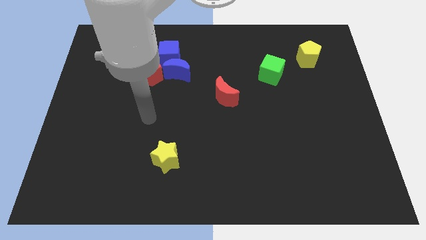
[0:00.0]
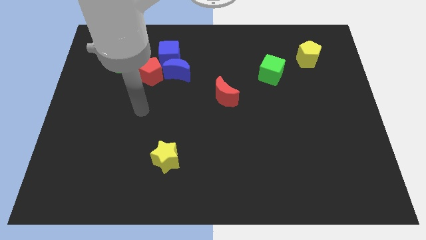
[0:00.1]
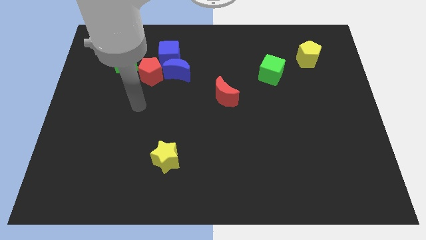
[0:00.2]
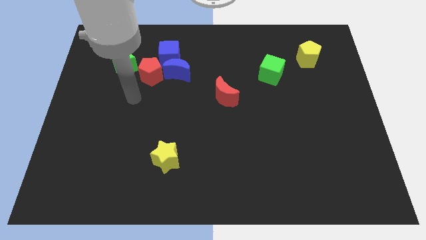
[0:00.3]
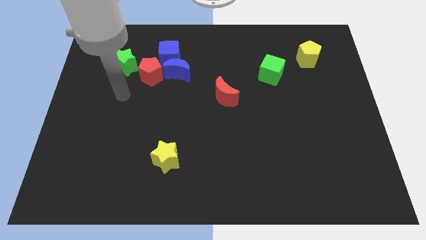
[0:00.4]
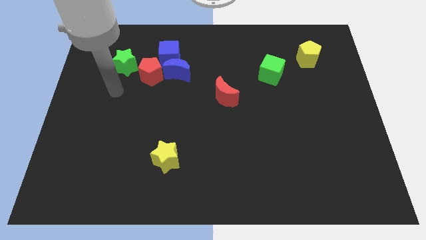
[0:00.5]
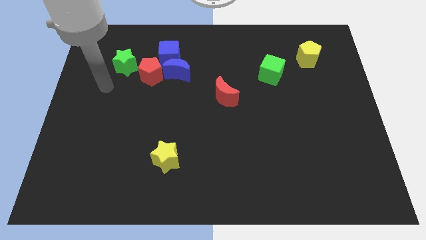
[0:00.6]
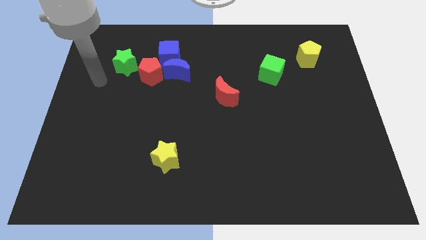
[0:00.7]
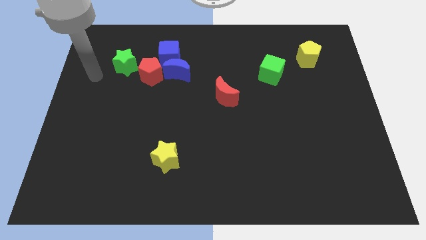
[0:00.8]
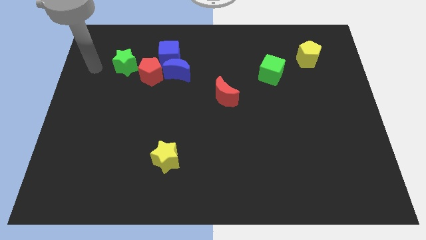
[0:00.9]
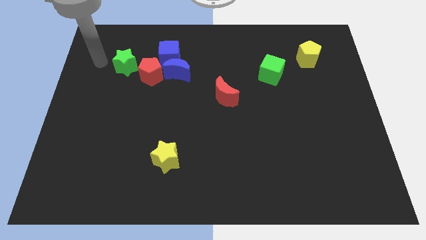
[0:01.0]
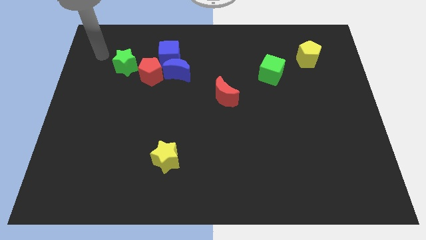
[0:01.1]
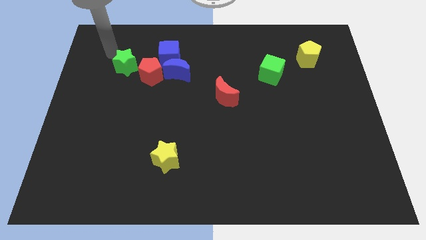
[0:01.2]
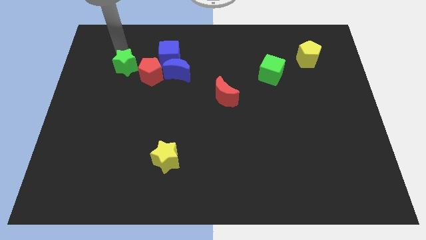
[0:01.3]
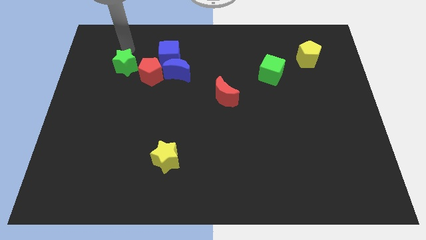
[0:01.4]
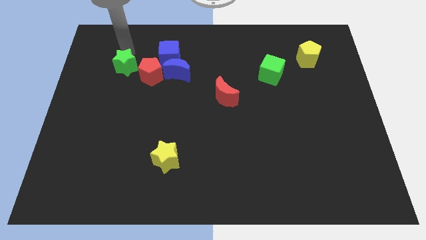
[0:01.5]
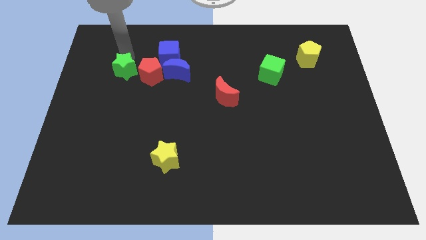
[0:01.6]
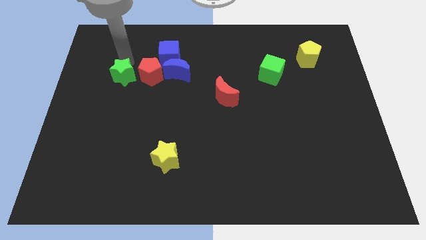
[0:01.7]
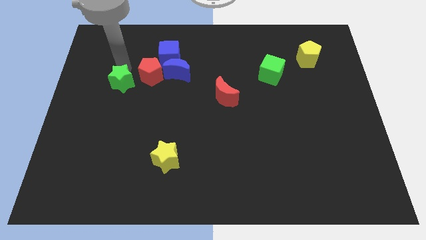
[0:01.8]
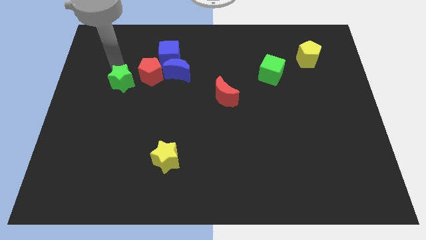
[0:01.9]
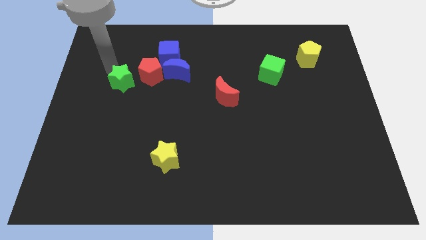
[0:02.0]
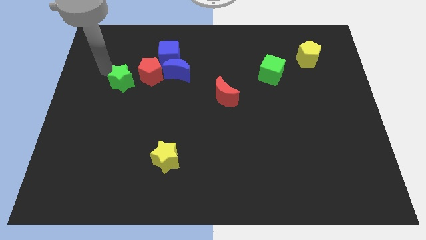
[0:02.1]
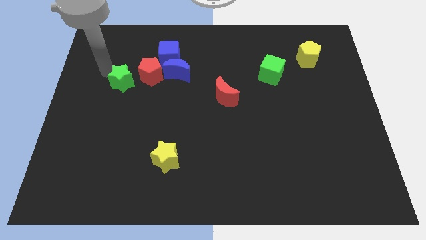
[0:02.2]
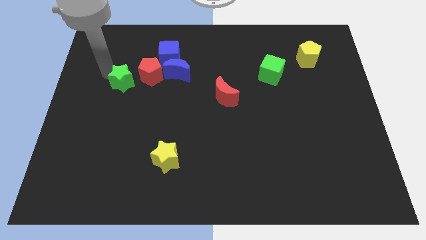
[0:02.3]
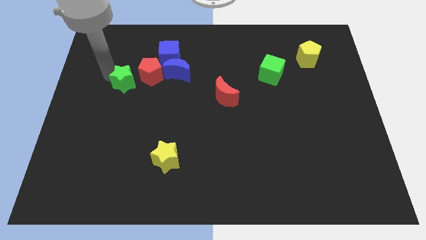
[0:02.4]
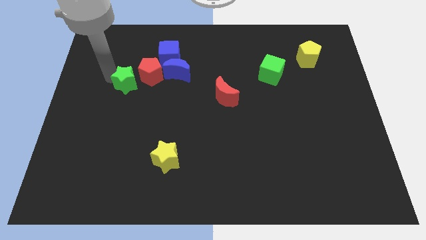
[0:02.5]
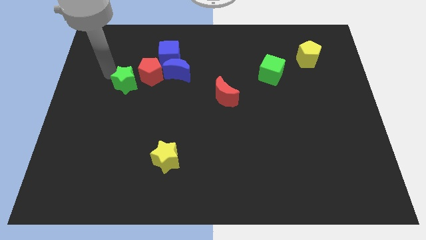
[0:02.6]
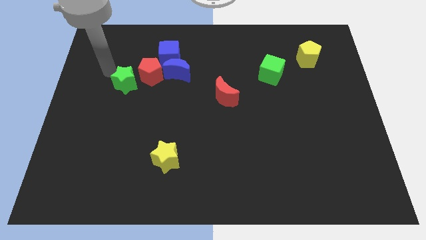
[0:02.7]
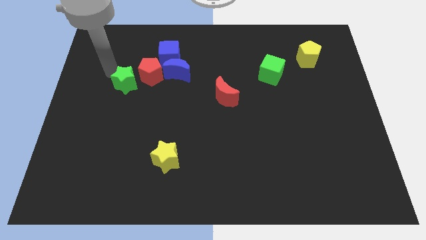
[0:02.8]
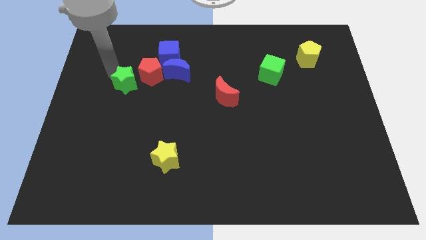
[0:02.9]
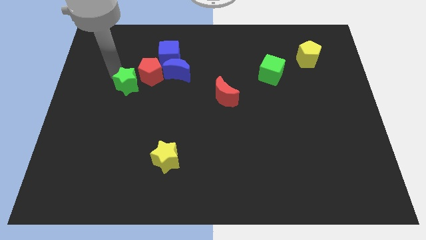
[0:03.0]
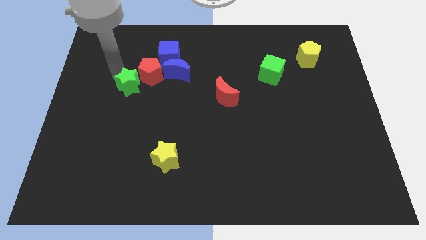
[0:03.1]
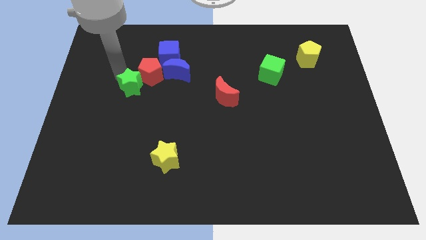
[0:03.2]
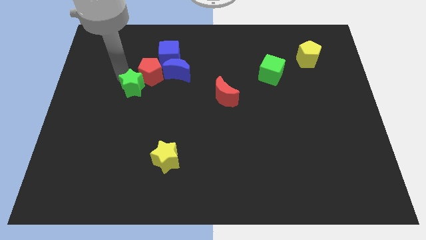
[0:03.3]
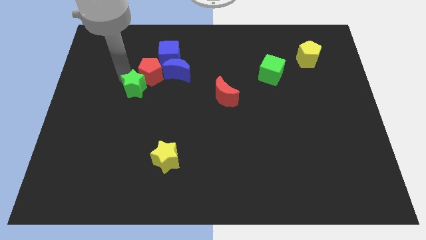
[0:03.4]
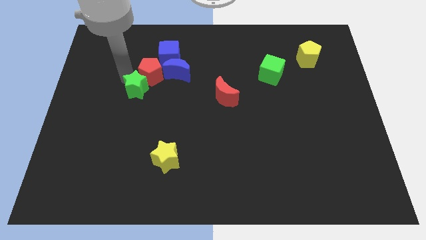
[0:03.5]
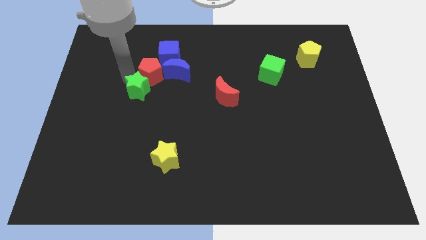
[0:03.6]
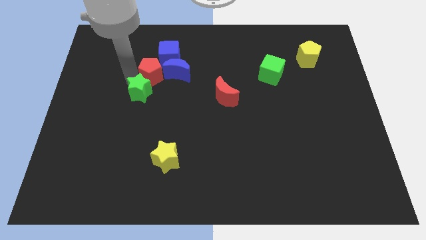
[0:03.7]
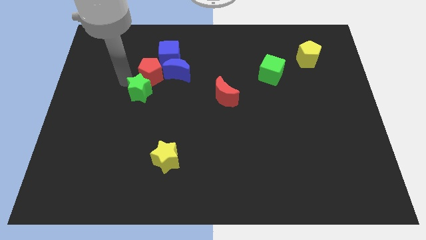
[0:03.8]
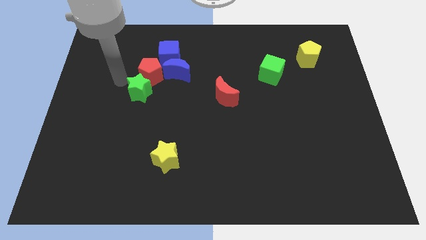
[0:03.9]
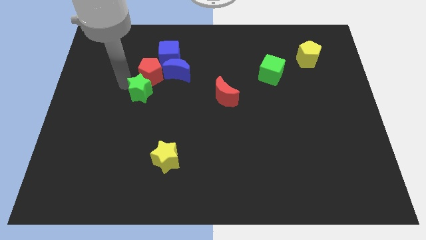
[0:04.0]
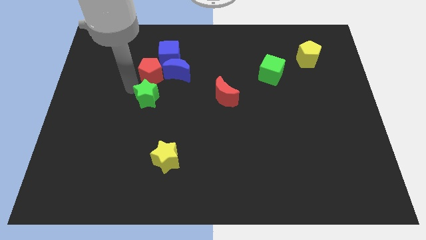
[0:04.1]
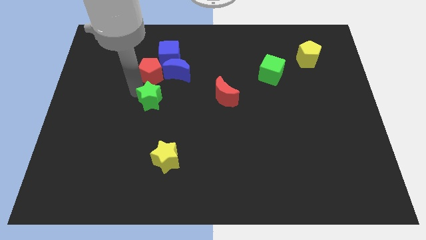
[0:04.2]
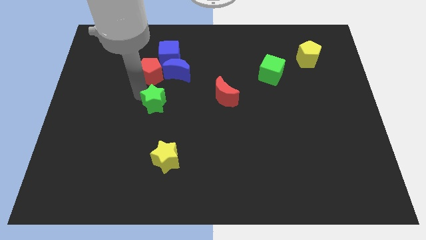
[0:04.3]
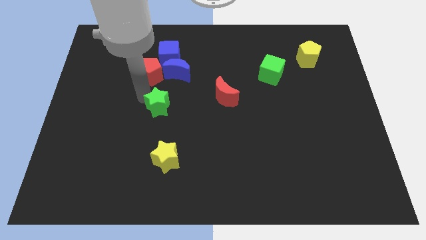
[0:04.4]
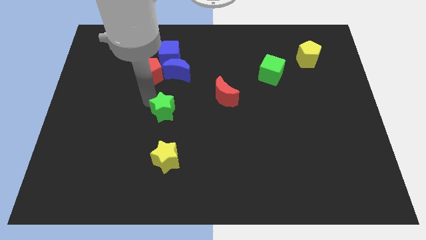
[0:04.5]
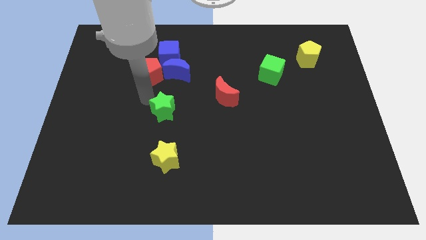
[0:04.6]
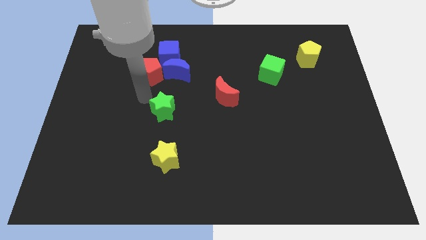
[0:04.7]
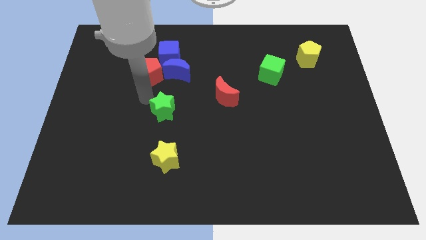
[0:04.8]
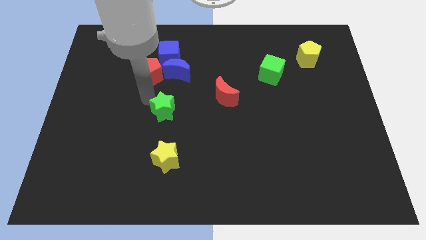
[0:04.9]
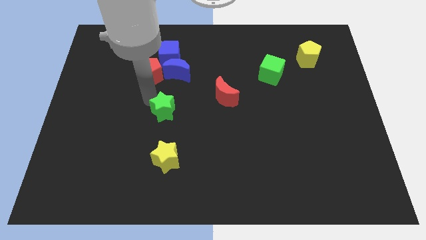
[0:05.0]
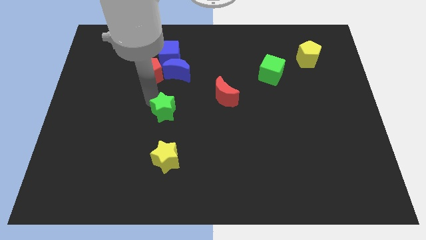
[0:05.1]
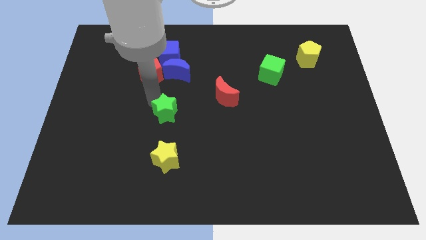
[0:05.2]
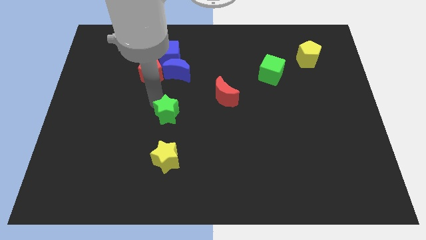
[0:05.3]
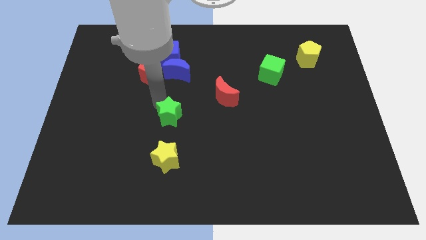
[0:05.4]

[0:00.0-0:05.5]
slide the green star down and to the right

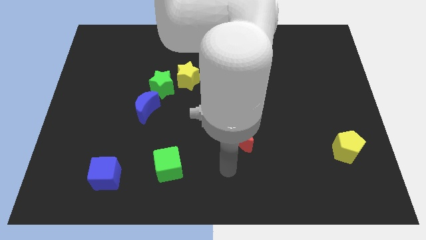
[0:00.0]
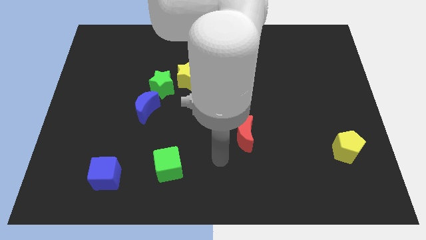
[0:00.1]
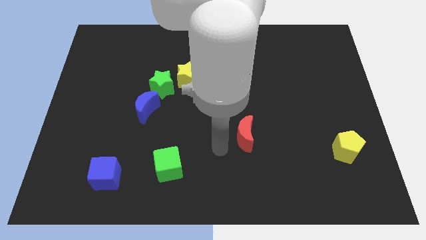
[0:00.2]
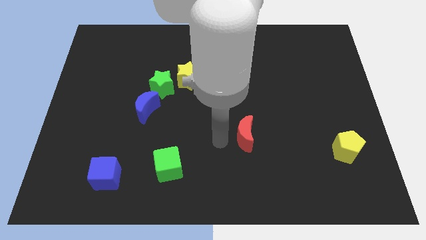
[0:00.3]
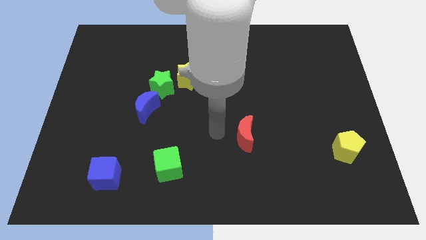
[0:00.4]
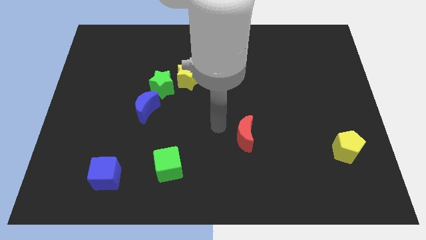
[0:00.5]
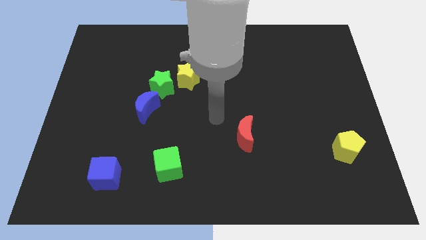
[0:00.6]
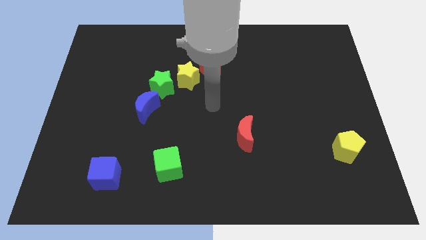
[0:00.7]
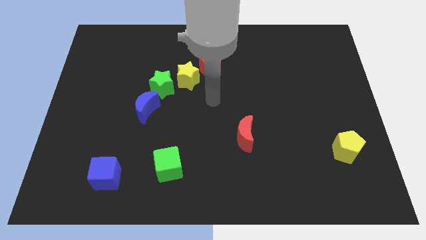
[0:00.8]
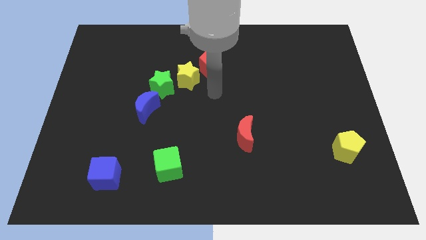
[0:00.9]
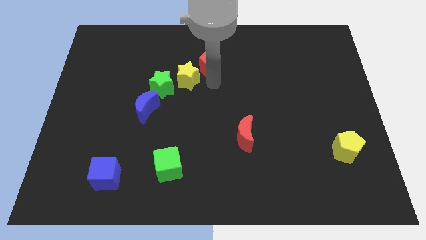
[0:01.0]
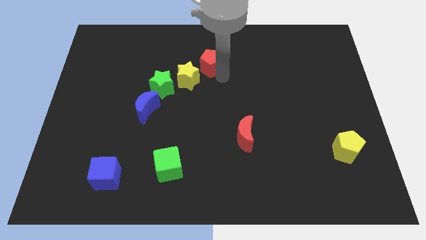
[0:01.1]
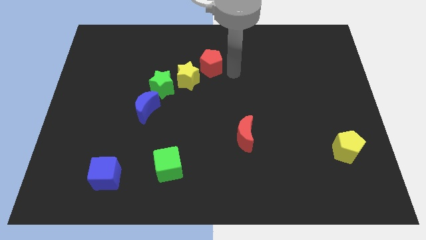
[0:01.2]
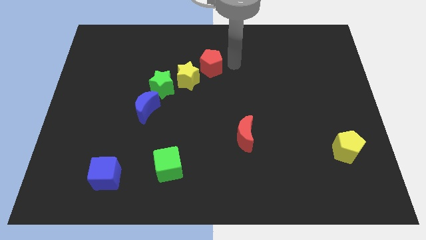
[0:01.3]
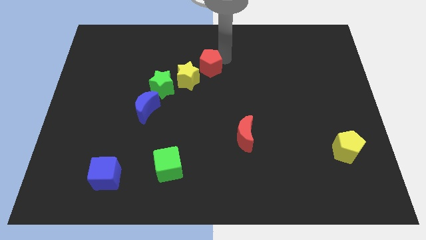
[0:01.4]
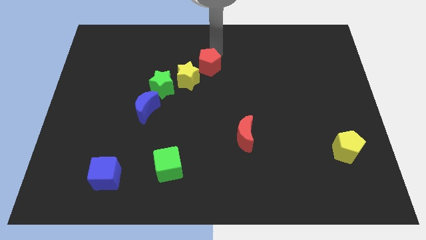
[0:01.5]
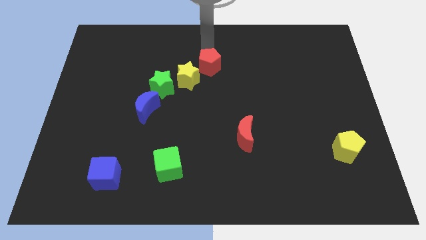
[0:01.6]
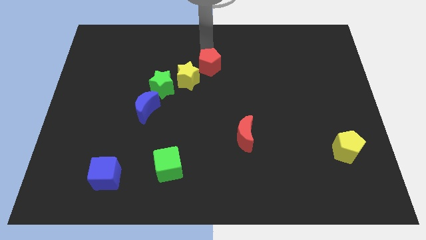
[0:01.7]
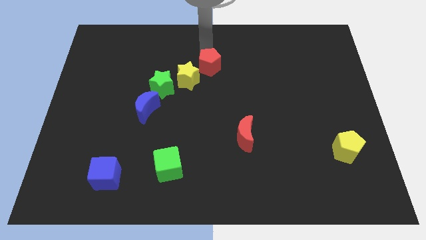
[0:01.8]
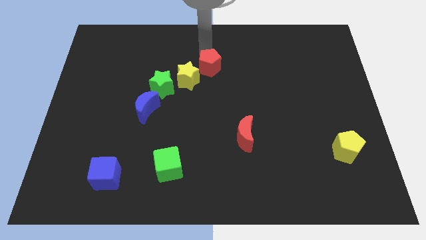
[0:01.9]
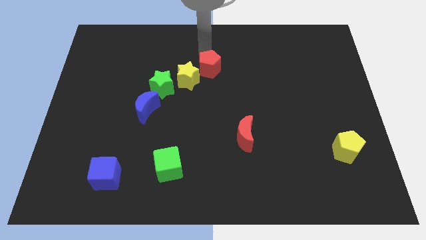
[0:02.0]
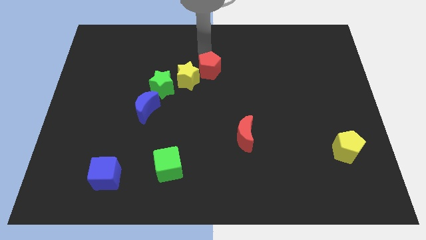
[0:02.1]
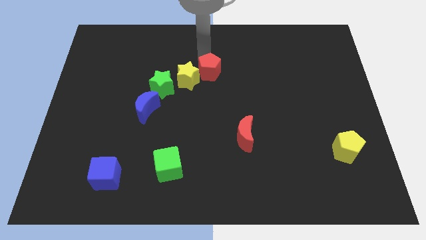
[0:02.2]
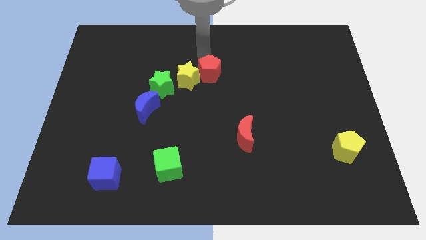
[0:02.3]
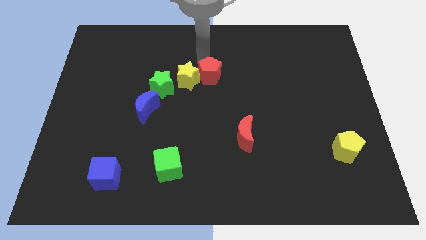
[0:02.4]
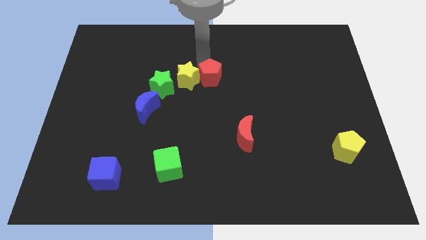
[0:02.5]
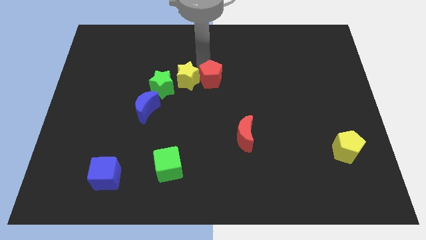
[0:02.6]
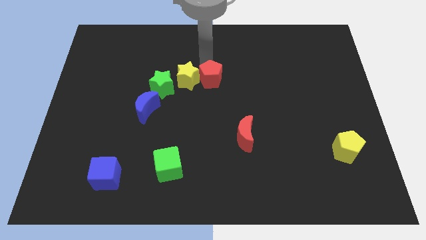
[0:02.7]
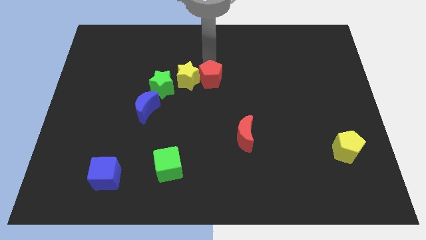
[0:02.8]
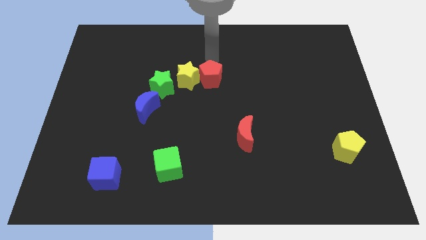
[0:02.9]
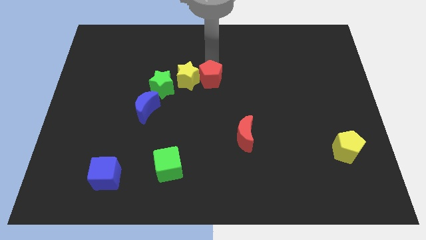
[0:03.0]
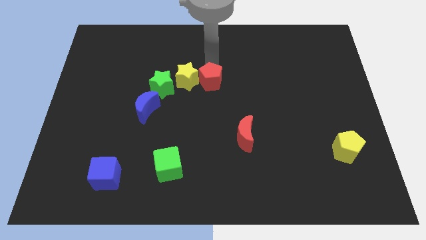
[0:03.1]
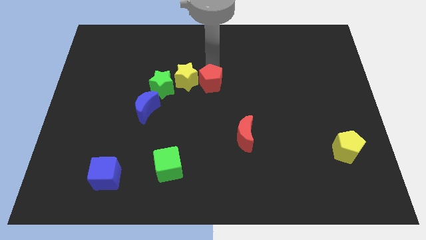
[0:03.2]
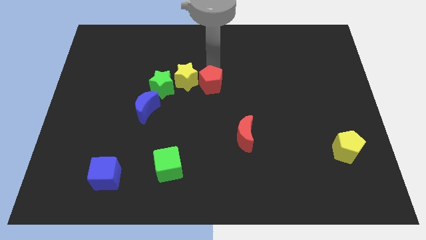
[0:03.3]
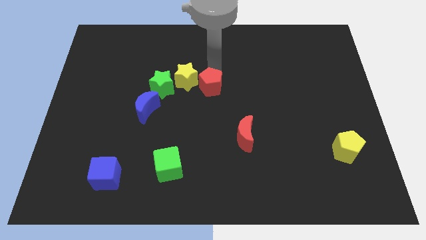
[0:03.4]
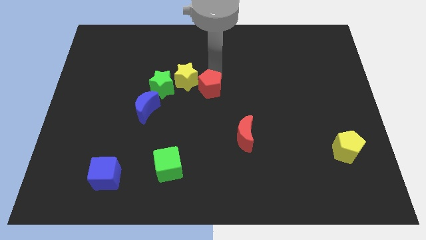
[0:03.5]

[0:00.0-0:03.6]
push the red pentagon down a little
